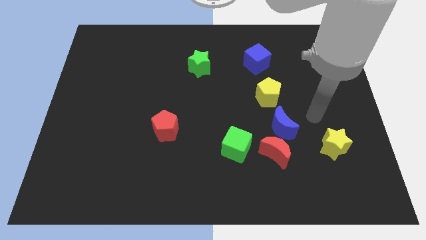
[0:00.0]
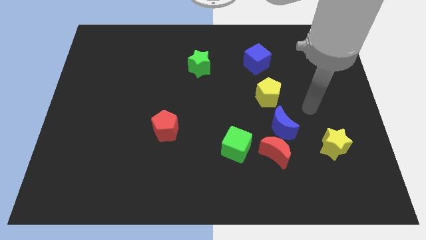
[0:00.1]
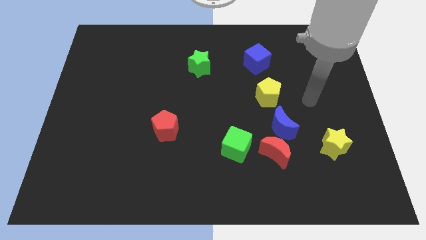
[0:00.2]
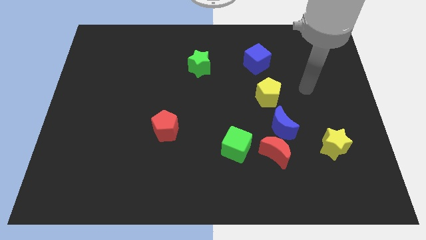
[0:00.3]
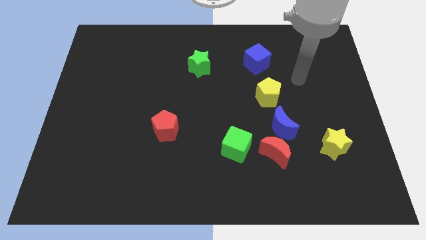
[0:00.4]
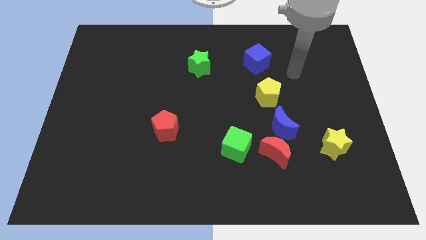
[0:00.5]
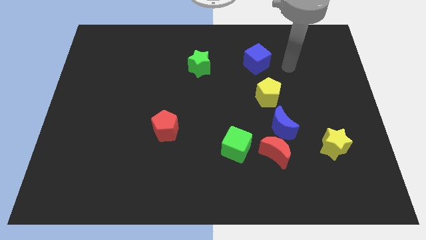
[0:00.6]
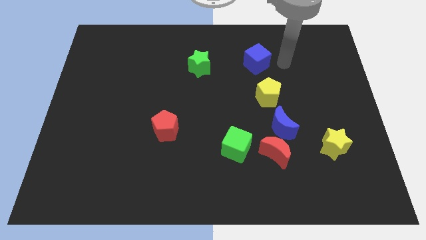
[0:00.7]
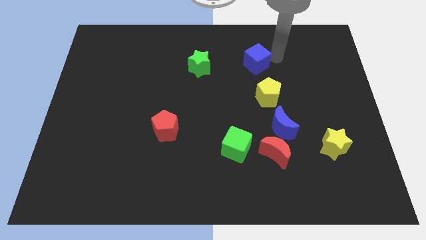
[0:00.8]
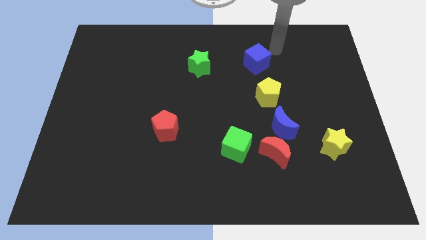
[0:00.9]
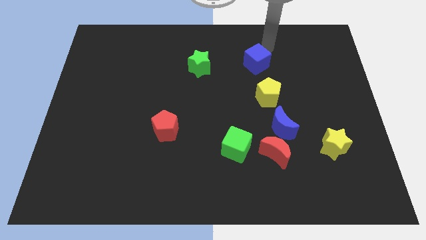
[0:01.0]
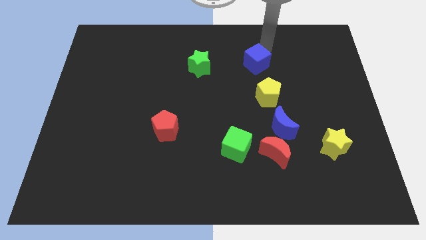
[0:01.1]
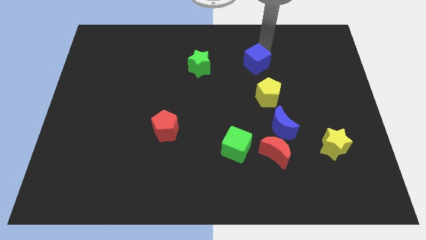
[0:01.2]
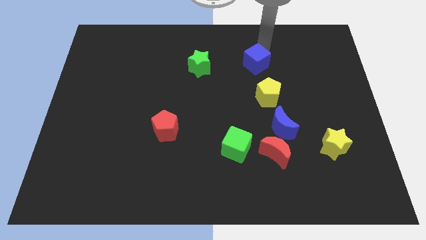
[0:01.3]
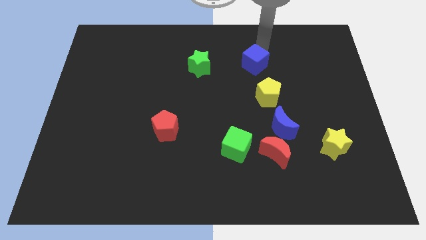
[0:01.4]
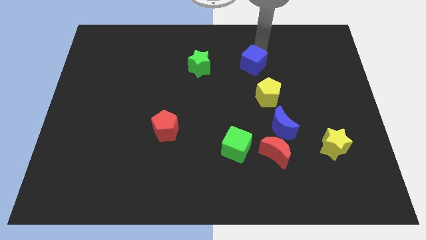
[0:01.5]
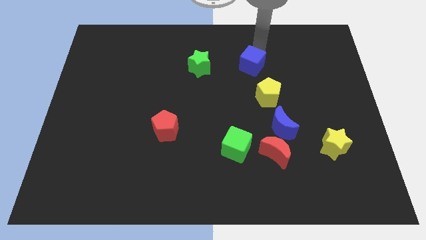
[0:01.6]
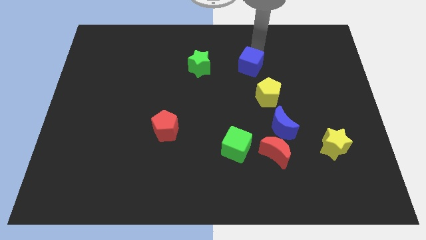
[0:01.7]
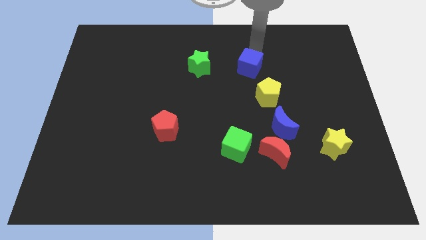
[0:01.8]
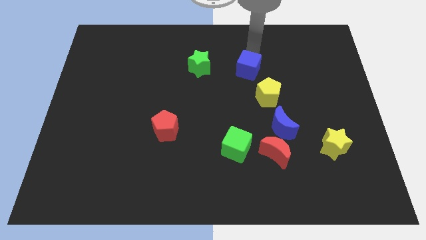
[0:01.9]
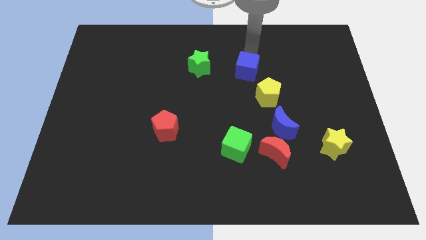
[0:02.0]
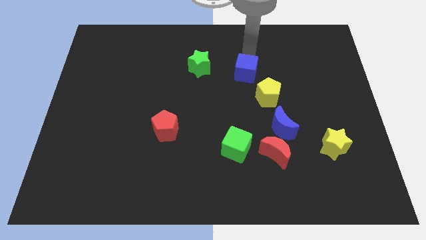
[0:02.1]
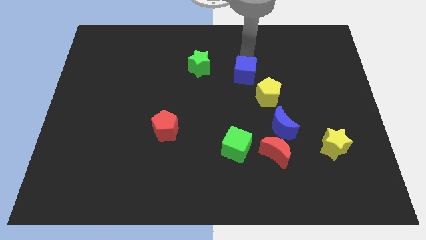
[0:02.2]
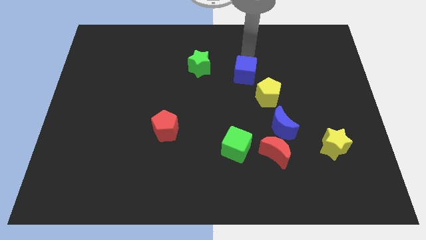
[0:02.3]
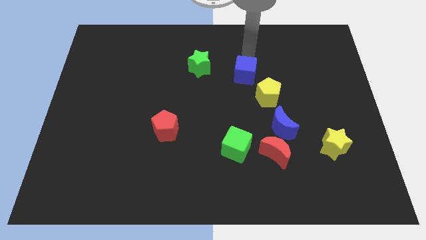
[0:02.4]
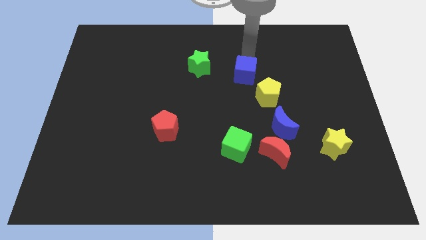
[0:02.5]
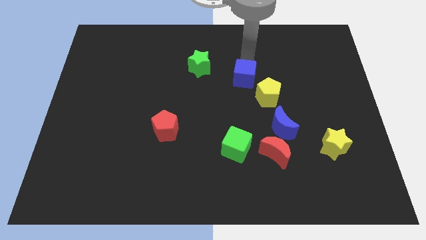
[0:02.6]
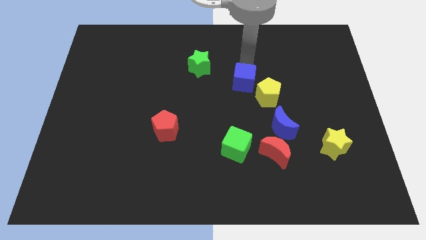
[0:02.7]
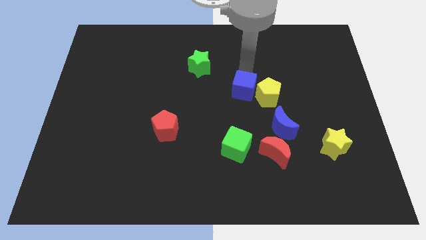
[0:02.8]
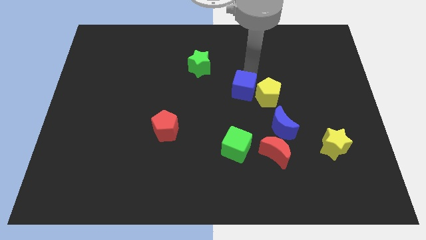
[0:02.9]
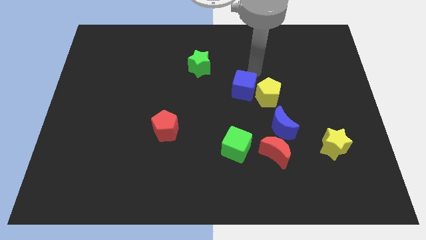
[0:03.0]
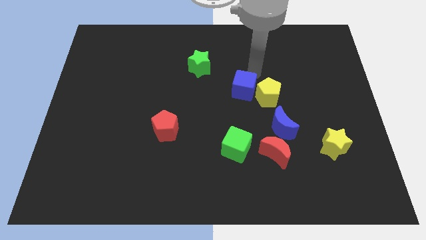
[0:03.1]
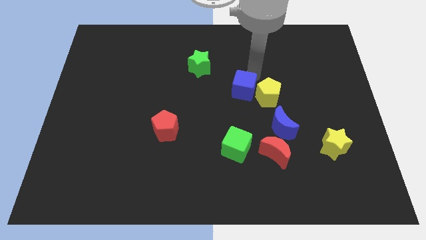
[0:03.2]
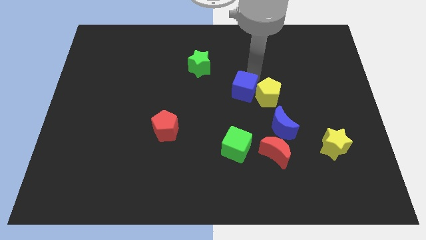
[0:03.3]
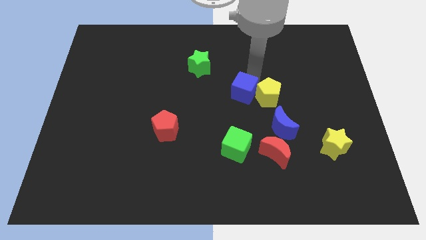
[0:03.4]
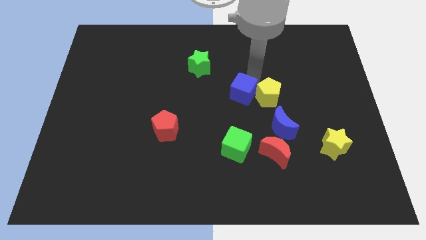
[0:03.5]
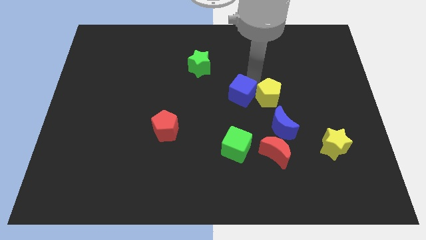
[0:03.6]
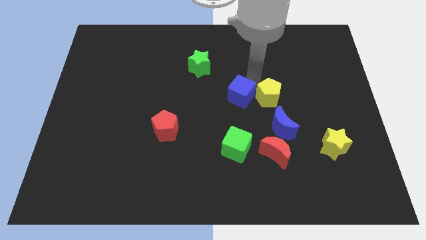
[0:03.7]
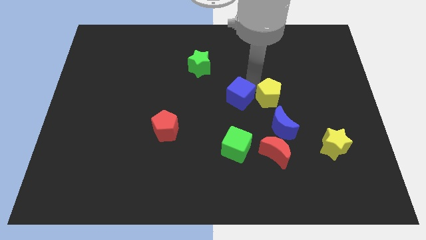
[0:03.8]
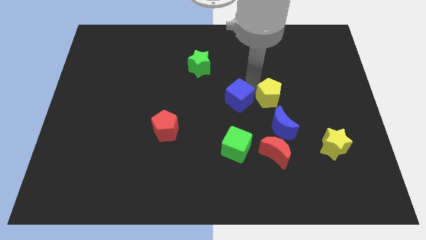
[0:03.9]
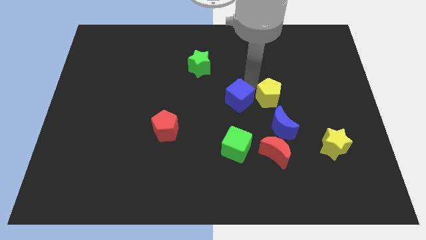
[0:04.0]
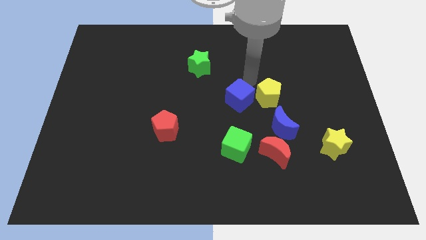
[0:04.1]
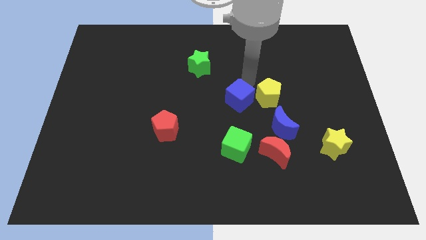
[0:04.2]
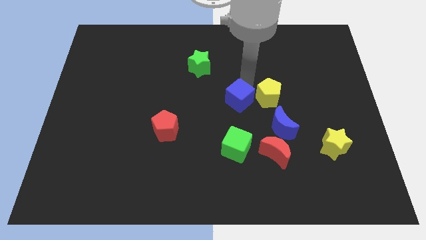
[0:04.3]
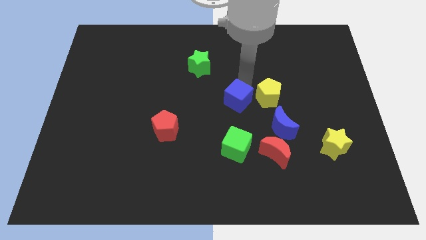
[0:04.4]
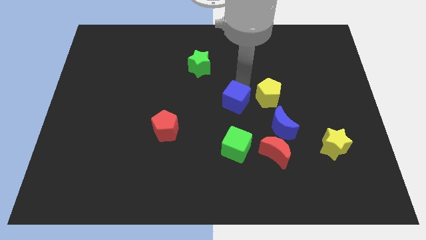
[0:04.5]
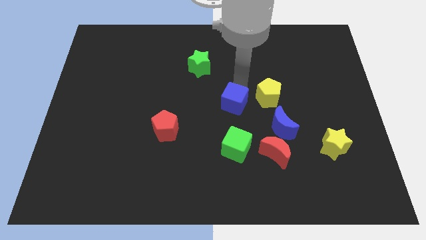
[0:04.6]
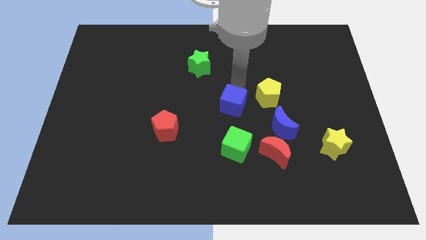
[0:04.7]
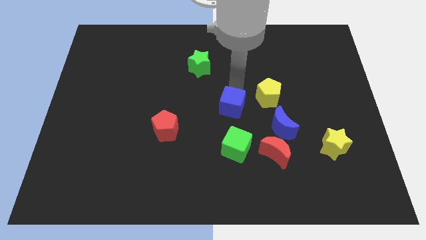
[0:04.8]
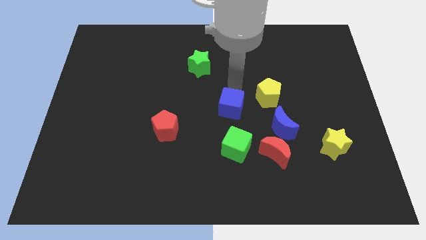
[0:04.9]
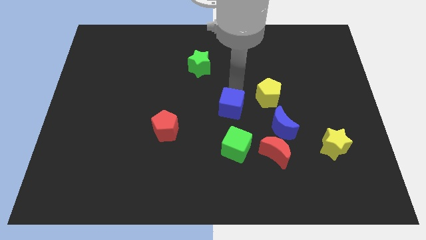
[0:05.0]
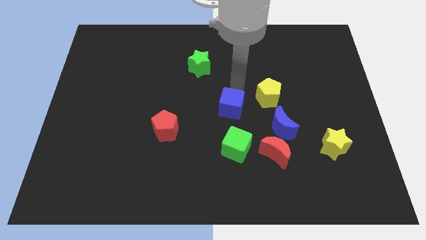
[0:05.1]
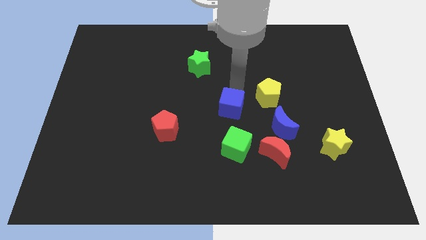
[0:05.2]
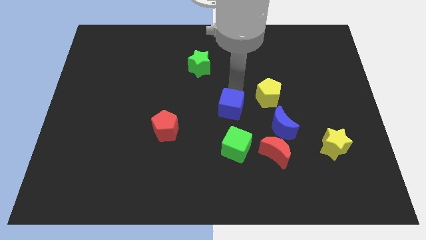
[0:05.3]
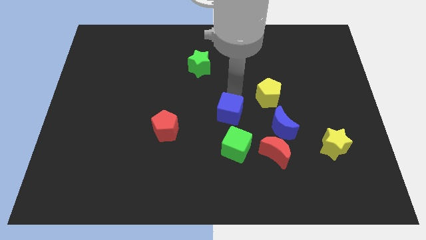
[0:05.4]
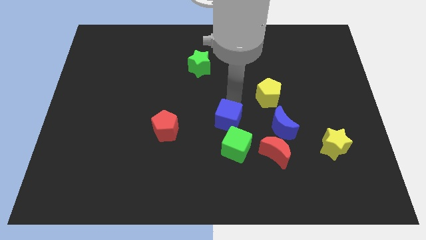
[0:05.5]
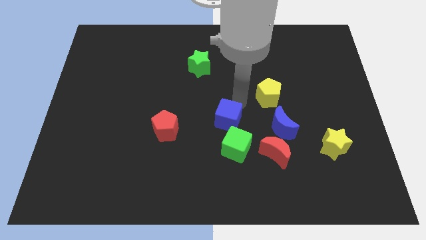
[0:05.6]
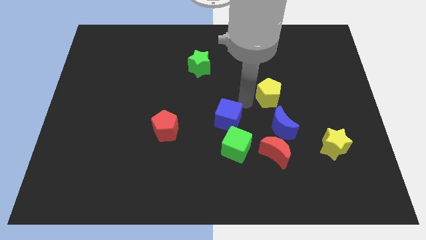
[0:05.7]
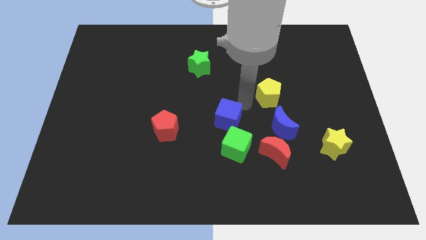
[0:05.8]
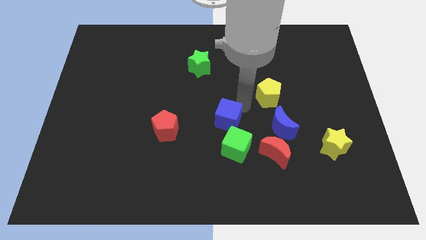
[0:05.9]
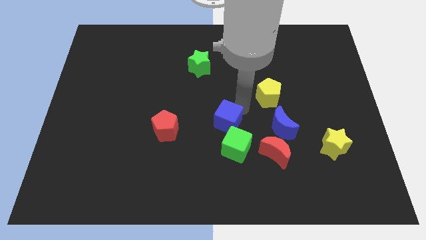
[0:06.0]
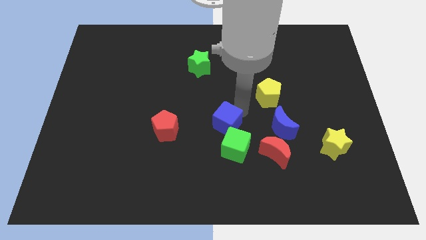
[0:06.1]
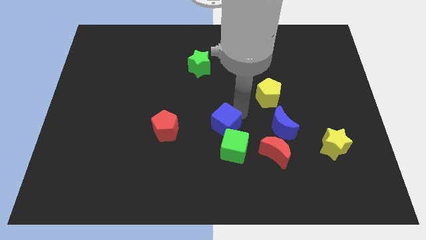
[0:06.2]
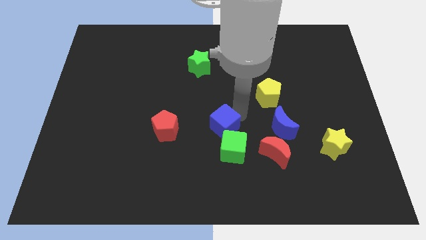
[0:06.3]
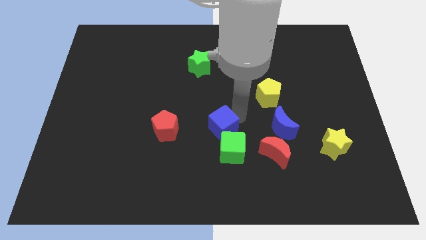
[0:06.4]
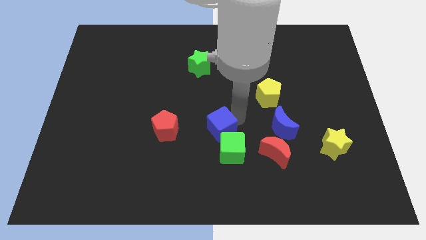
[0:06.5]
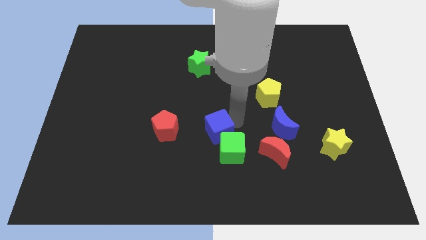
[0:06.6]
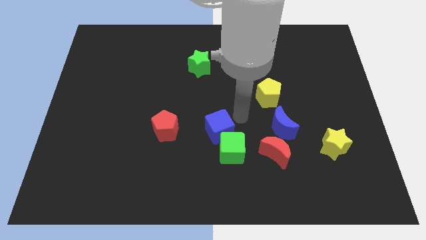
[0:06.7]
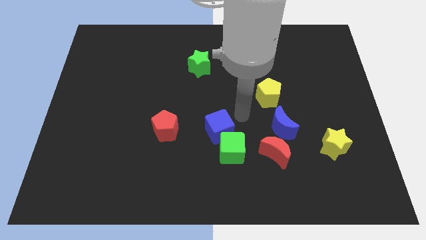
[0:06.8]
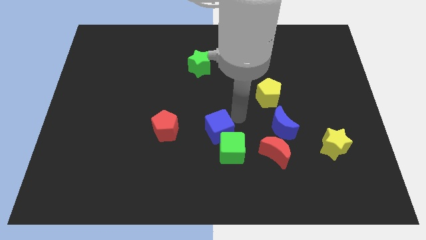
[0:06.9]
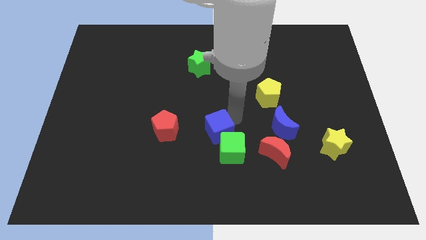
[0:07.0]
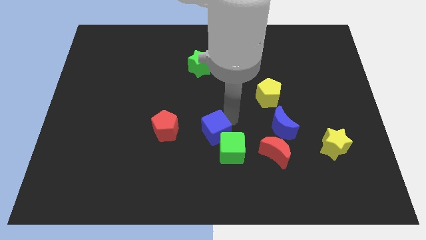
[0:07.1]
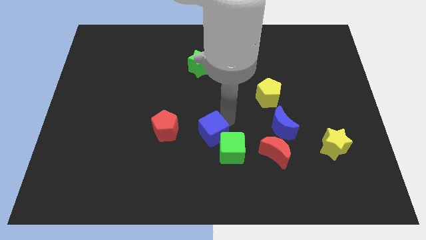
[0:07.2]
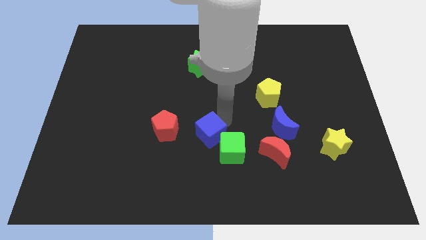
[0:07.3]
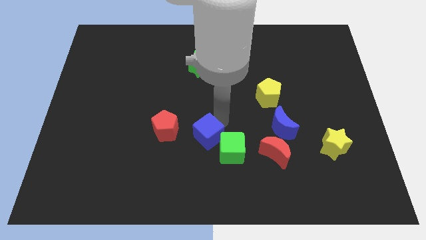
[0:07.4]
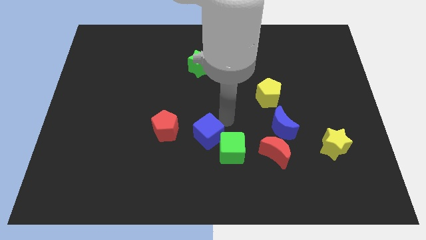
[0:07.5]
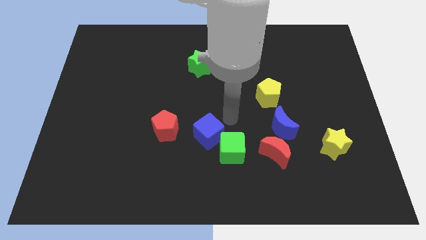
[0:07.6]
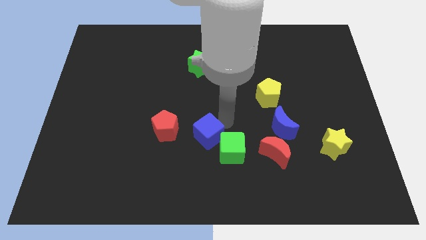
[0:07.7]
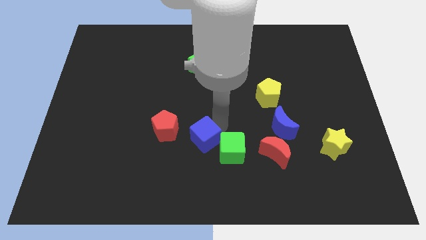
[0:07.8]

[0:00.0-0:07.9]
move the blue cube to the bottom right of the red pentagon
